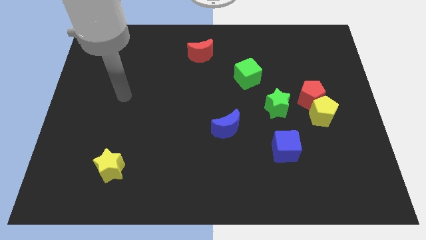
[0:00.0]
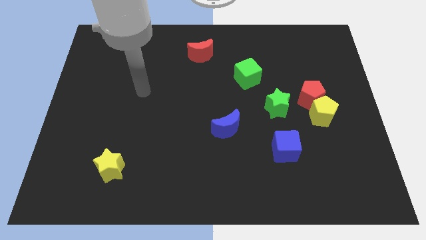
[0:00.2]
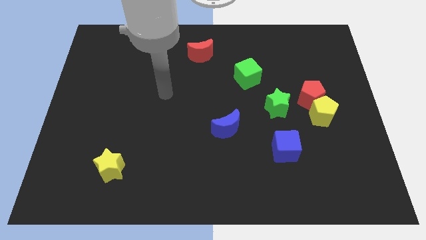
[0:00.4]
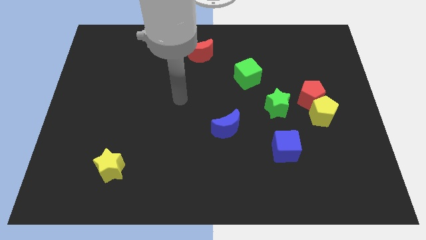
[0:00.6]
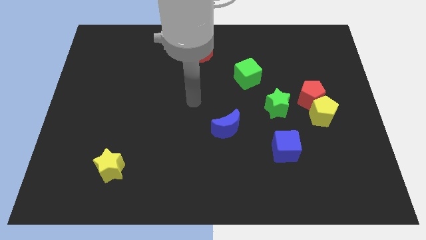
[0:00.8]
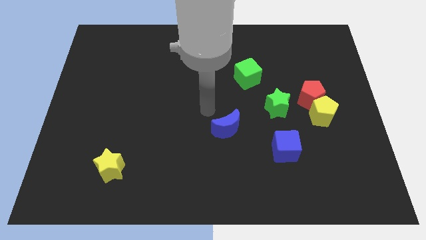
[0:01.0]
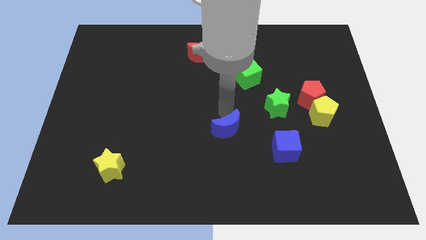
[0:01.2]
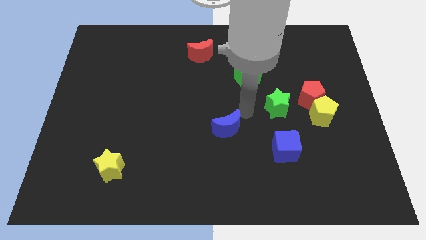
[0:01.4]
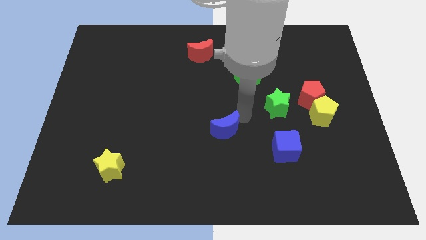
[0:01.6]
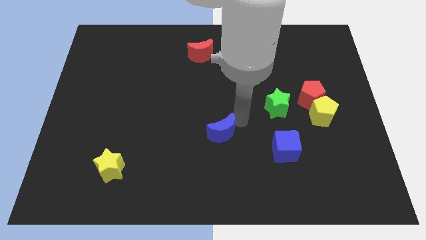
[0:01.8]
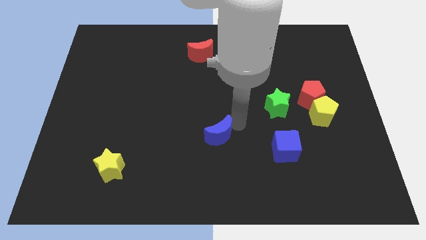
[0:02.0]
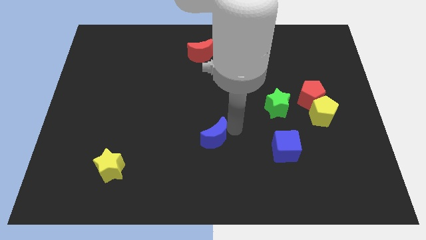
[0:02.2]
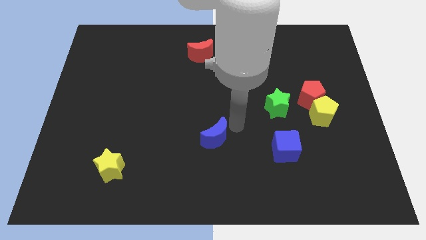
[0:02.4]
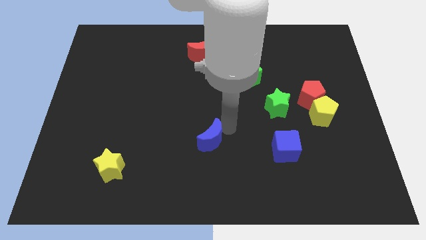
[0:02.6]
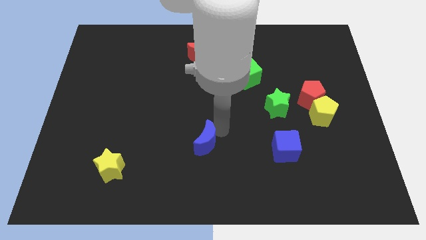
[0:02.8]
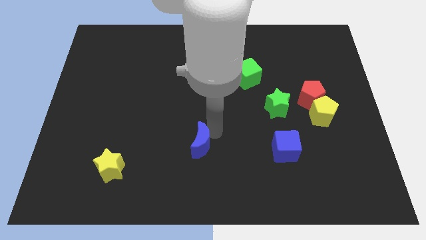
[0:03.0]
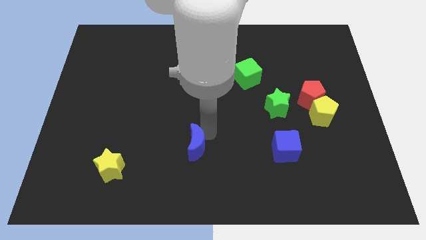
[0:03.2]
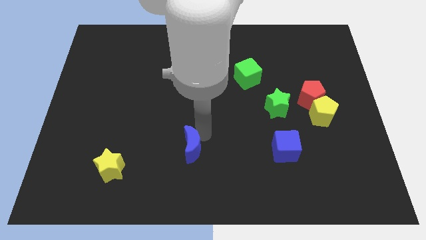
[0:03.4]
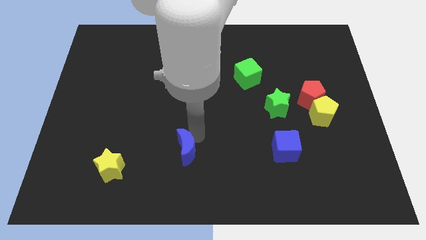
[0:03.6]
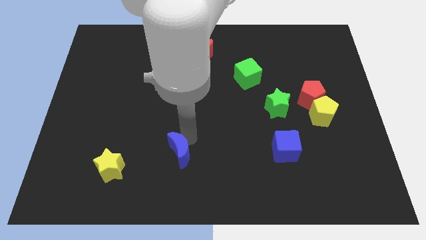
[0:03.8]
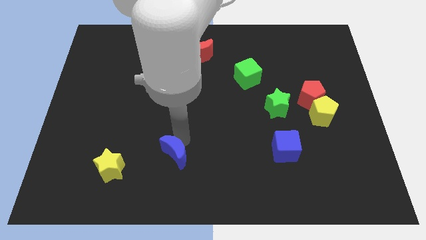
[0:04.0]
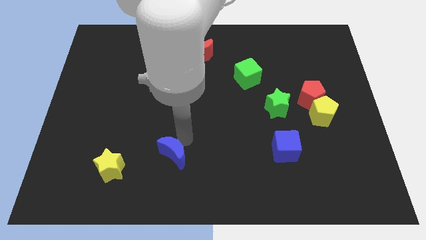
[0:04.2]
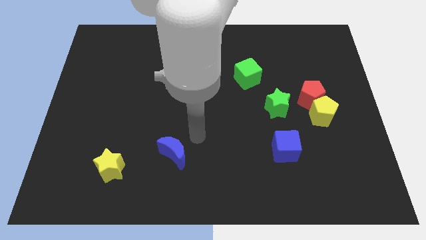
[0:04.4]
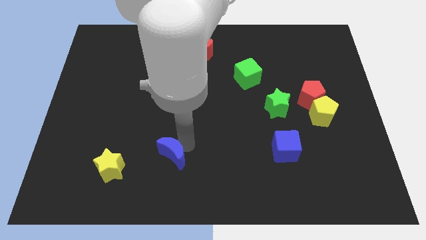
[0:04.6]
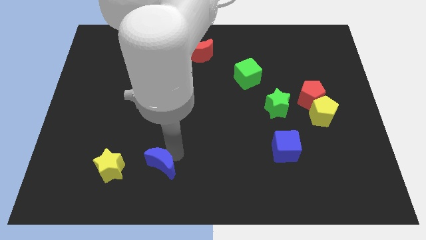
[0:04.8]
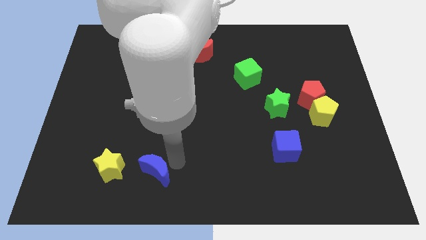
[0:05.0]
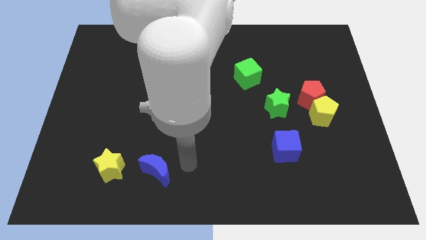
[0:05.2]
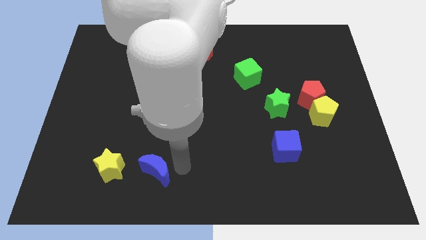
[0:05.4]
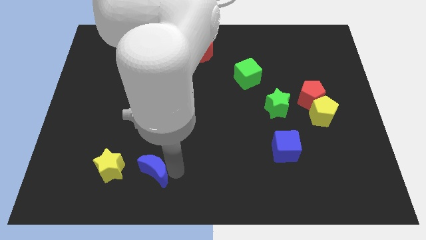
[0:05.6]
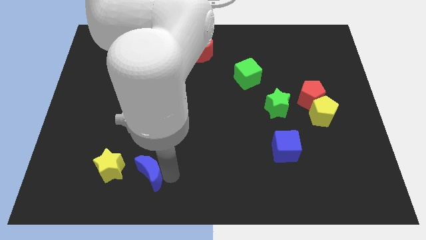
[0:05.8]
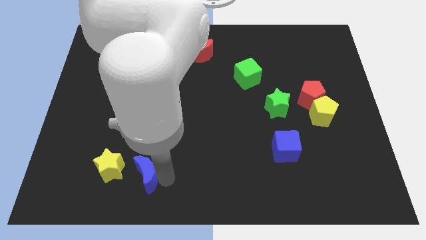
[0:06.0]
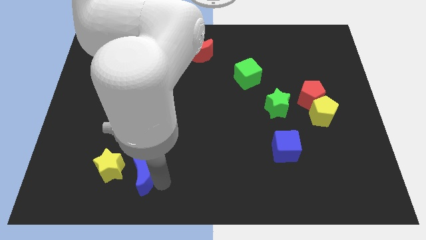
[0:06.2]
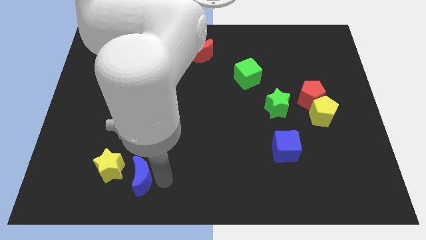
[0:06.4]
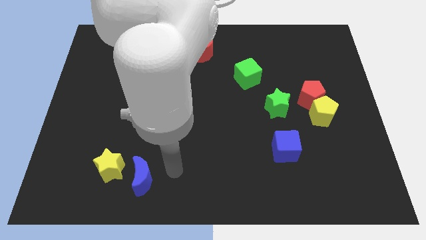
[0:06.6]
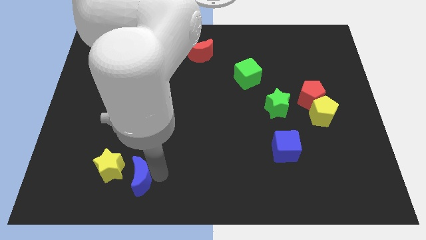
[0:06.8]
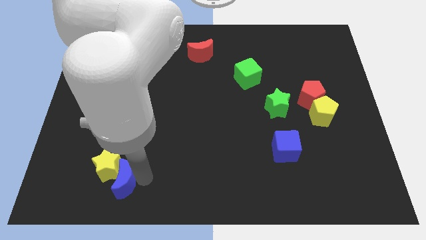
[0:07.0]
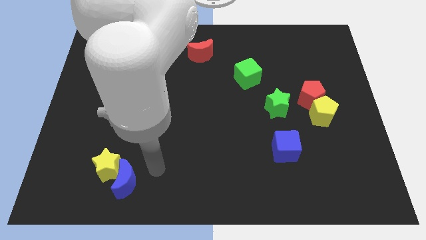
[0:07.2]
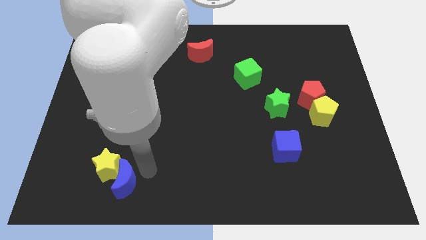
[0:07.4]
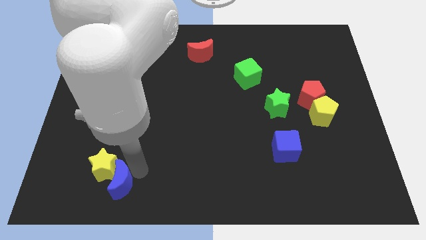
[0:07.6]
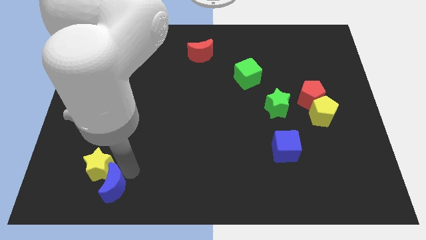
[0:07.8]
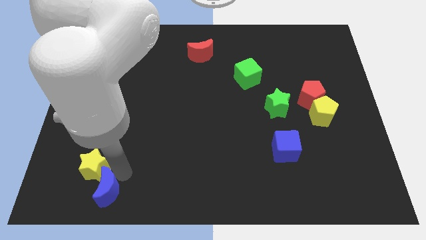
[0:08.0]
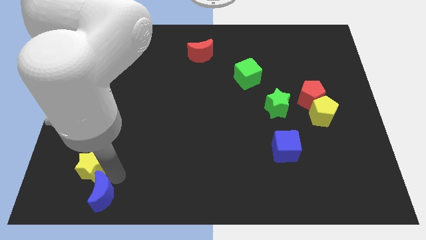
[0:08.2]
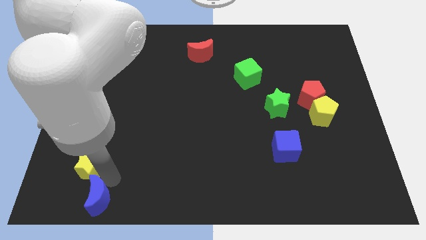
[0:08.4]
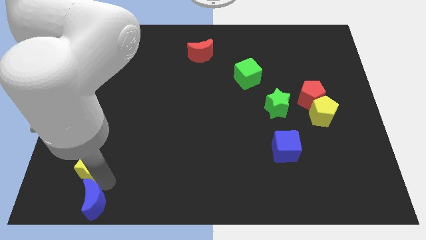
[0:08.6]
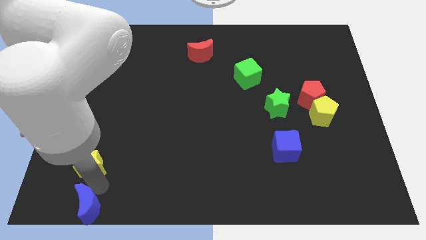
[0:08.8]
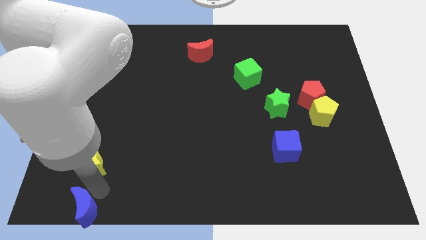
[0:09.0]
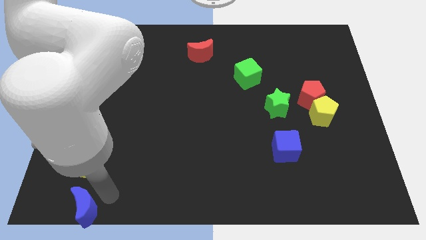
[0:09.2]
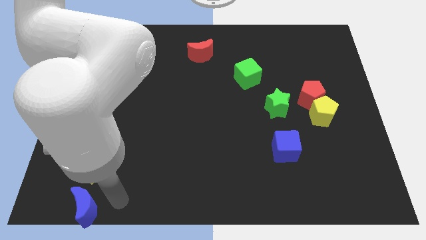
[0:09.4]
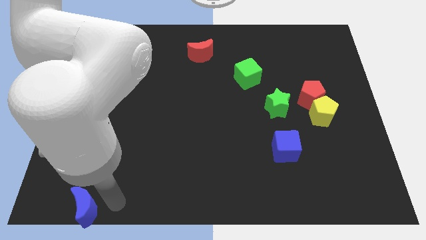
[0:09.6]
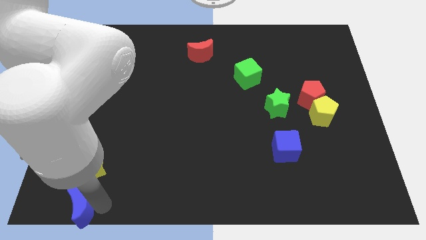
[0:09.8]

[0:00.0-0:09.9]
push the blue moon to the bottom left

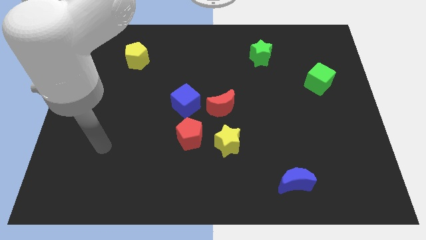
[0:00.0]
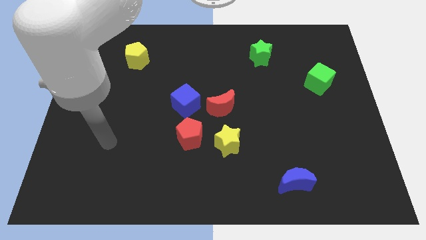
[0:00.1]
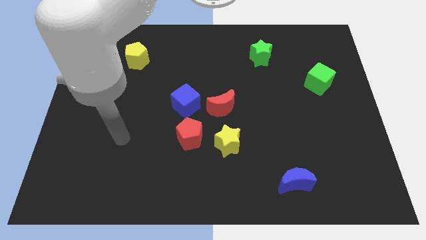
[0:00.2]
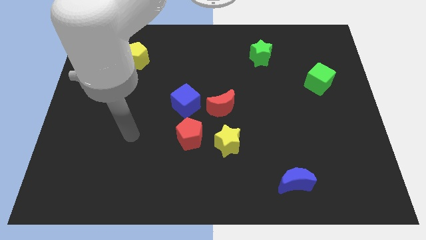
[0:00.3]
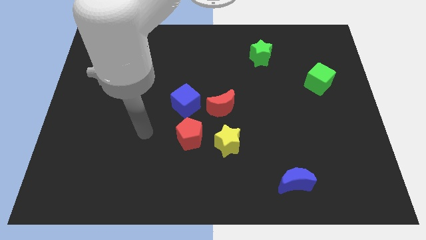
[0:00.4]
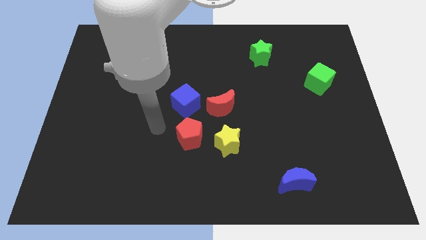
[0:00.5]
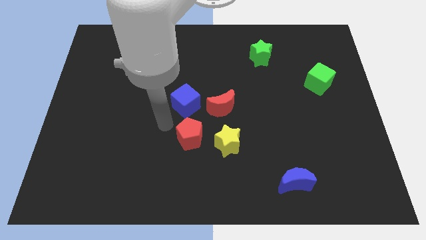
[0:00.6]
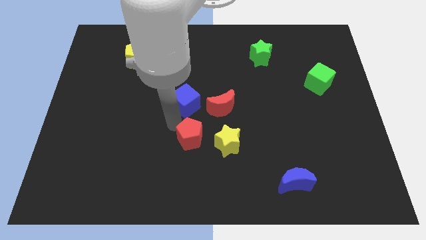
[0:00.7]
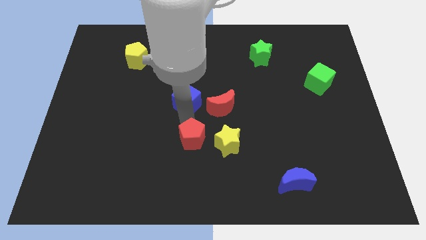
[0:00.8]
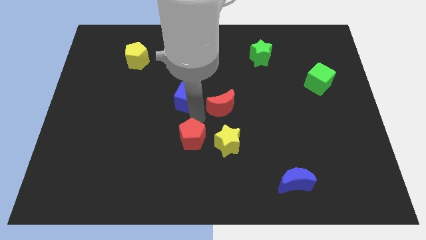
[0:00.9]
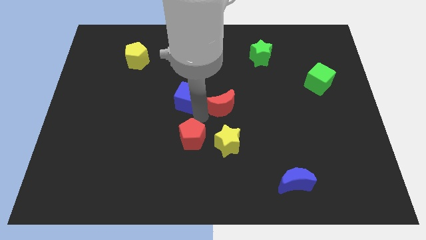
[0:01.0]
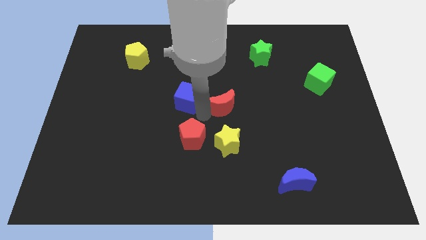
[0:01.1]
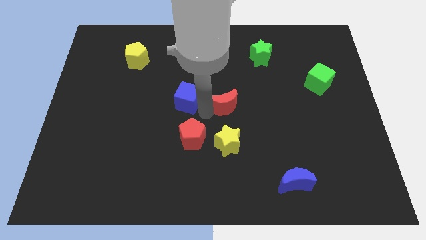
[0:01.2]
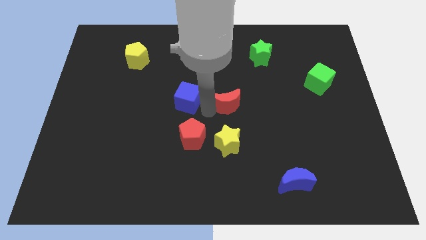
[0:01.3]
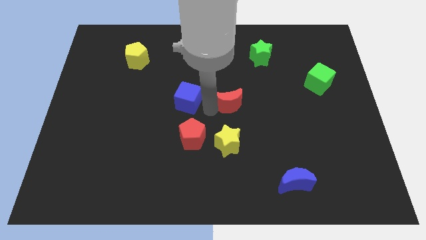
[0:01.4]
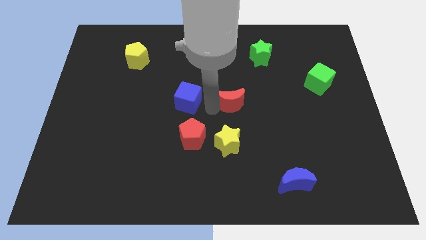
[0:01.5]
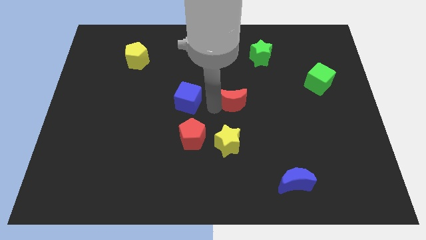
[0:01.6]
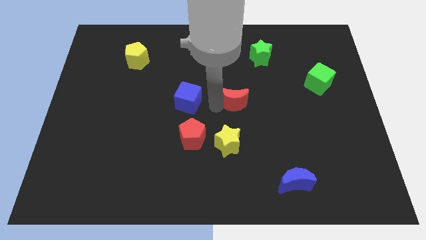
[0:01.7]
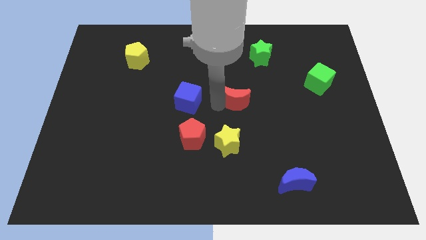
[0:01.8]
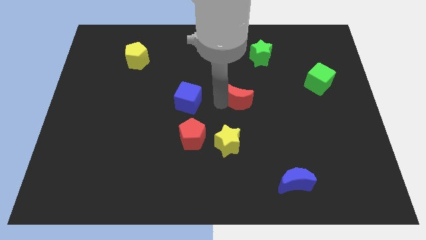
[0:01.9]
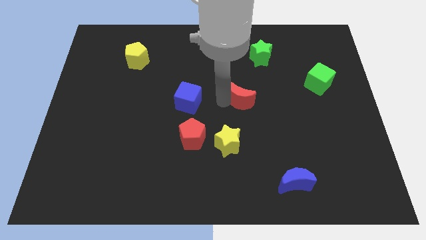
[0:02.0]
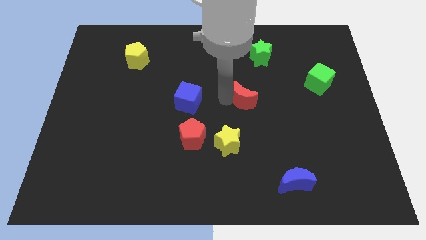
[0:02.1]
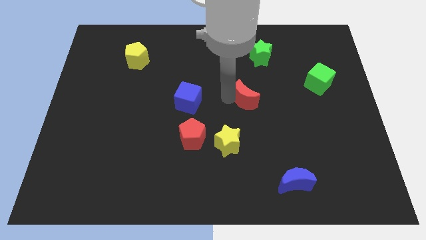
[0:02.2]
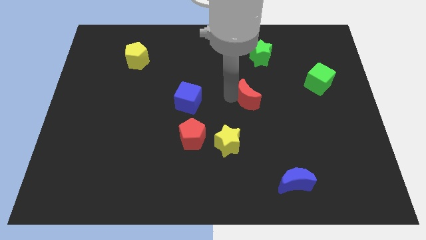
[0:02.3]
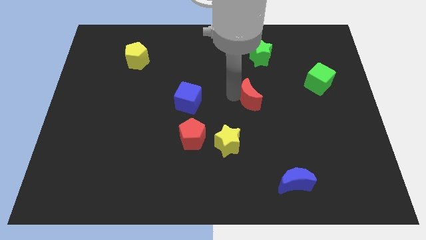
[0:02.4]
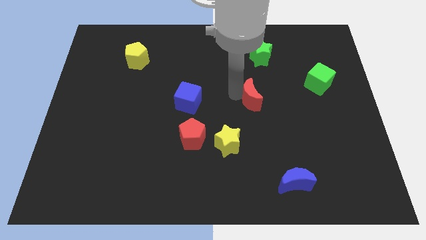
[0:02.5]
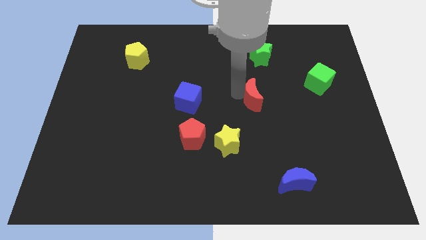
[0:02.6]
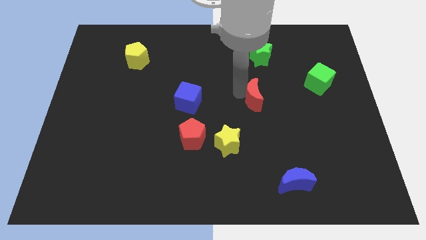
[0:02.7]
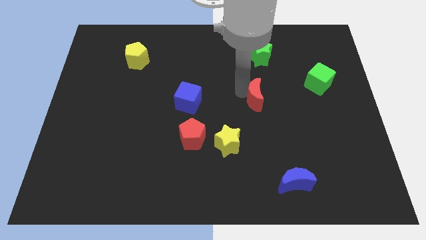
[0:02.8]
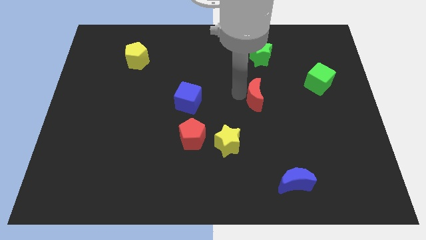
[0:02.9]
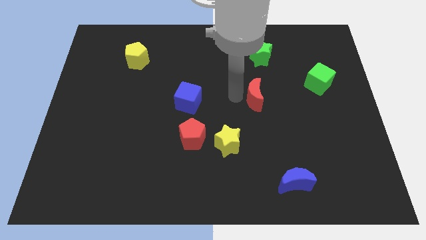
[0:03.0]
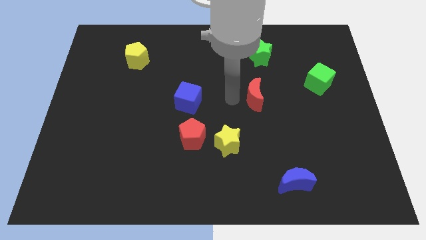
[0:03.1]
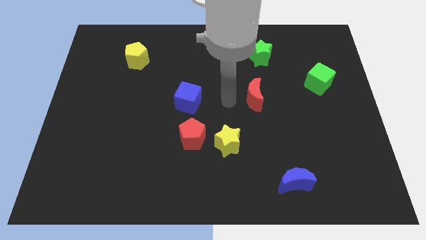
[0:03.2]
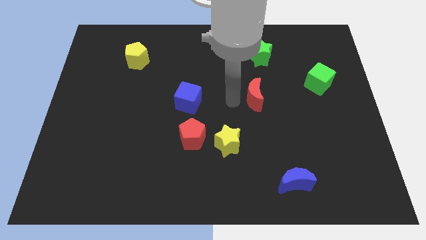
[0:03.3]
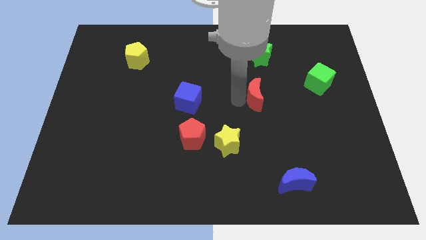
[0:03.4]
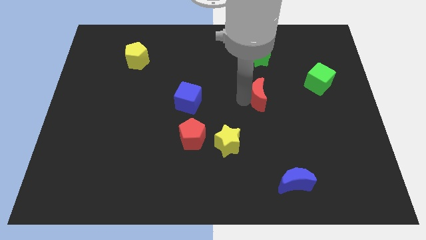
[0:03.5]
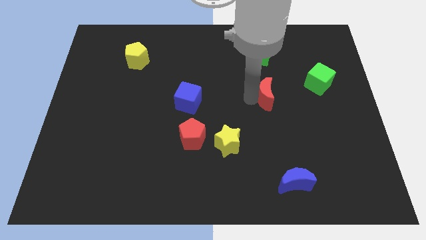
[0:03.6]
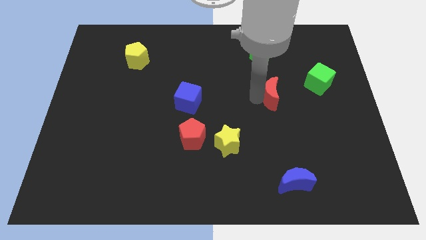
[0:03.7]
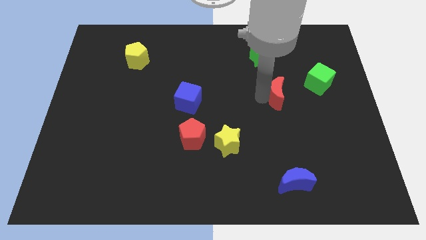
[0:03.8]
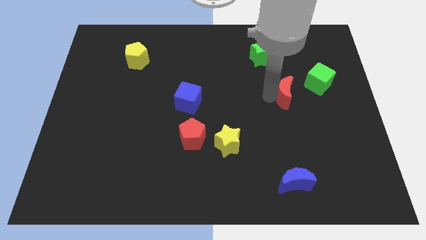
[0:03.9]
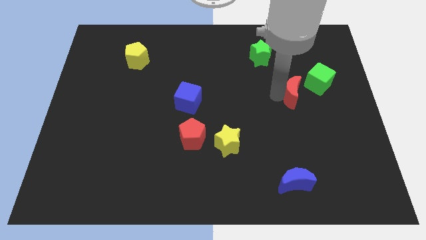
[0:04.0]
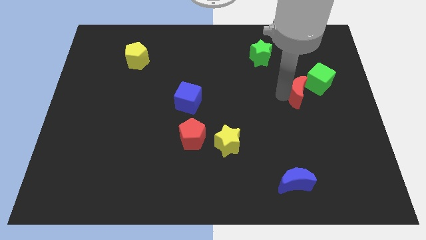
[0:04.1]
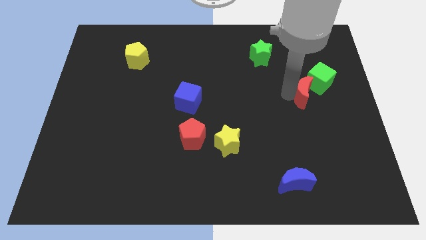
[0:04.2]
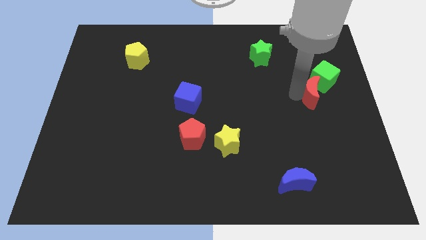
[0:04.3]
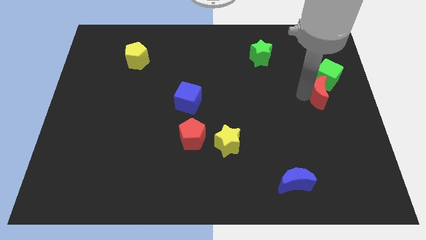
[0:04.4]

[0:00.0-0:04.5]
push the red moon to the center right
